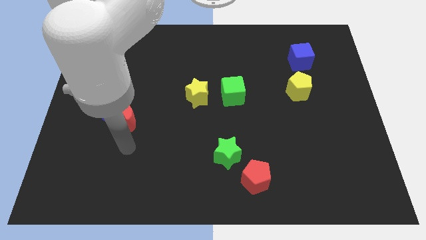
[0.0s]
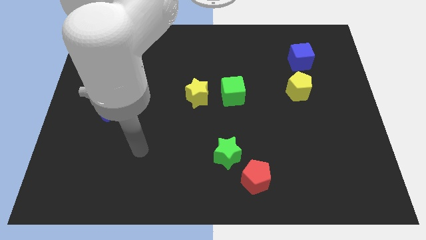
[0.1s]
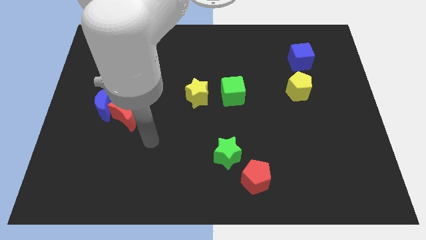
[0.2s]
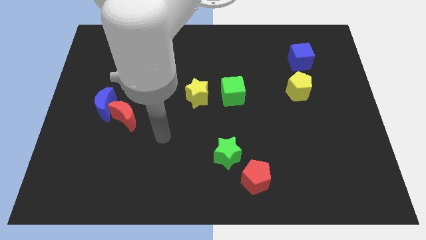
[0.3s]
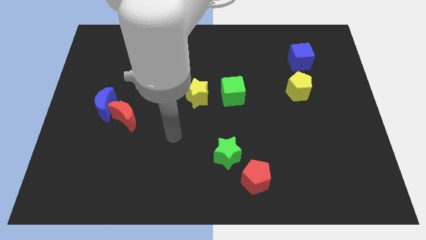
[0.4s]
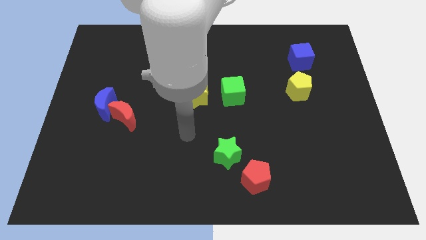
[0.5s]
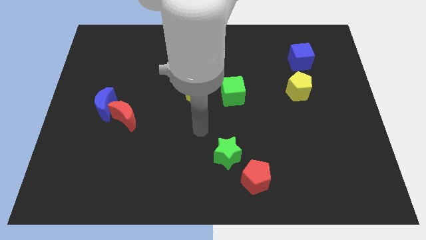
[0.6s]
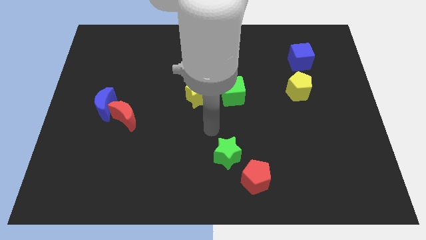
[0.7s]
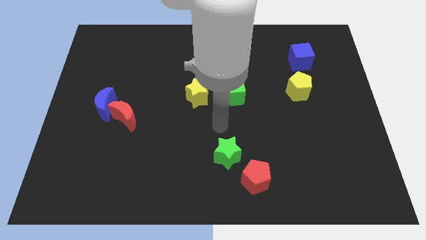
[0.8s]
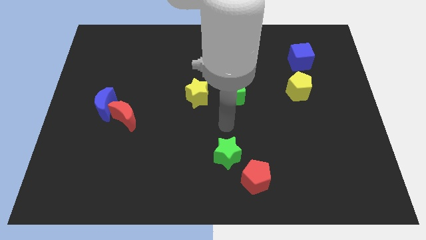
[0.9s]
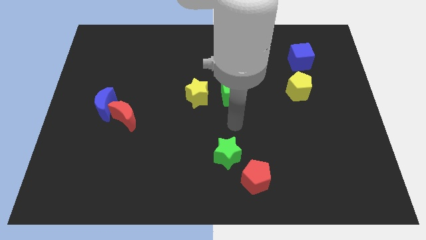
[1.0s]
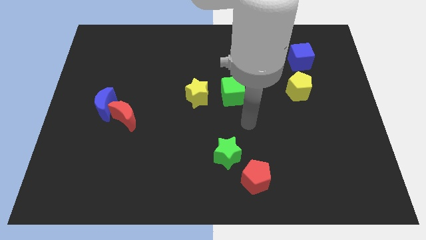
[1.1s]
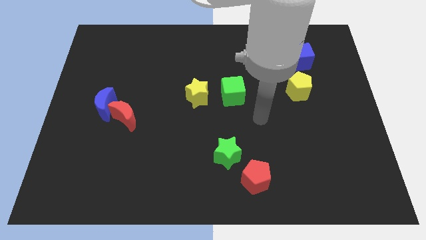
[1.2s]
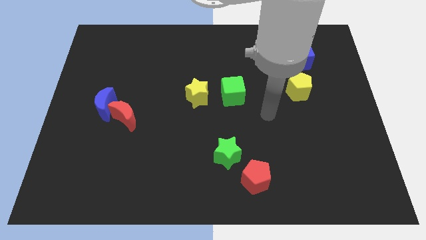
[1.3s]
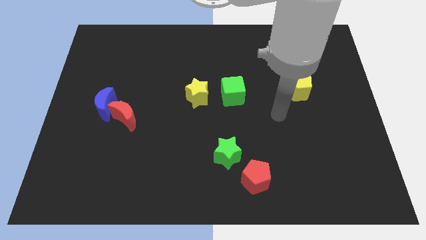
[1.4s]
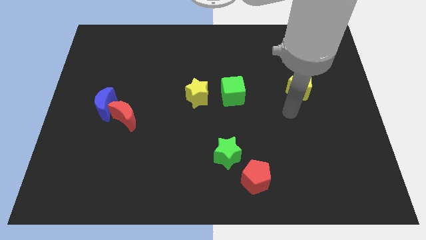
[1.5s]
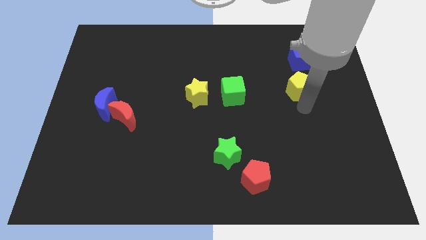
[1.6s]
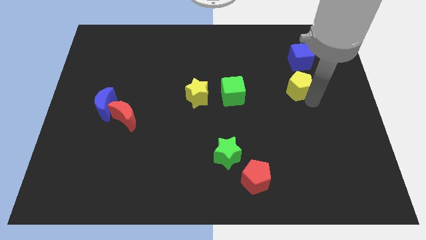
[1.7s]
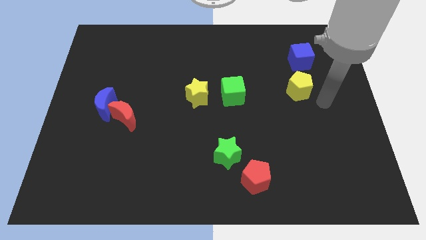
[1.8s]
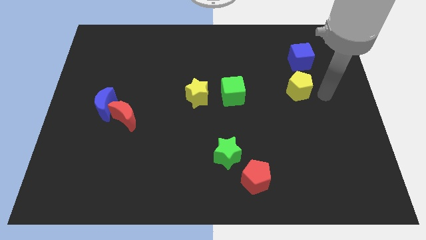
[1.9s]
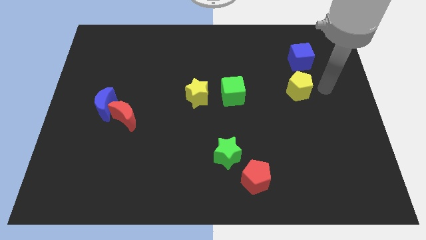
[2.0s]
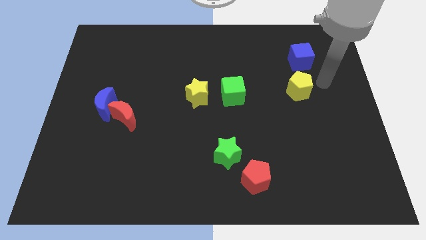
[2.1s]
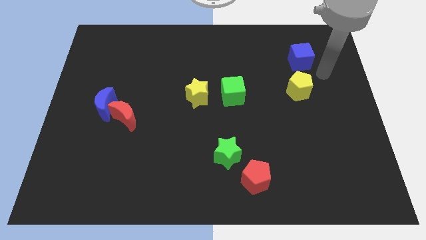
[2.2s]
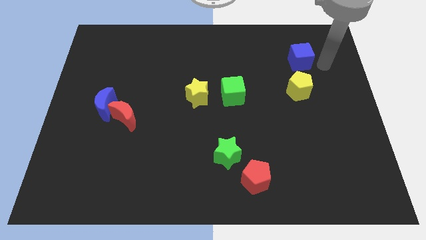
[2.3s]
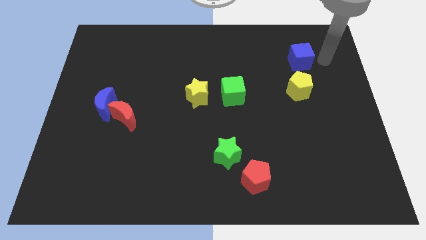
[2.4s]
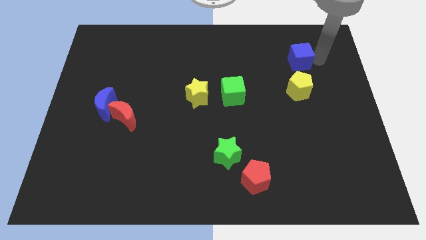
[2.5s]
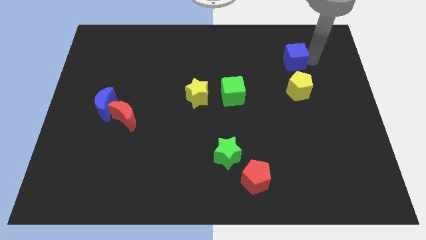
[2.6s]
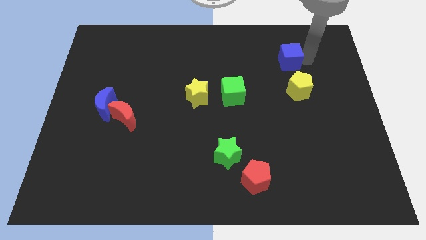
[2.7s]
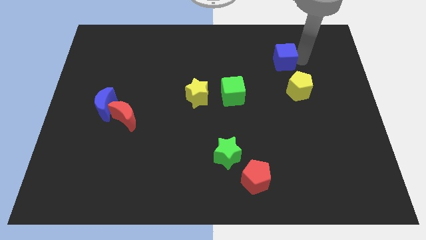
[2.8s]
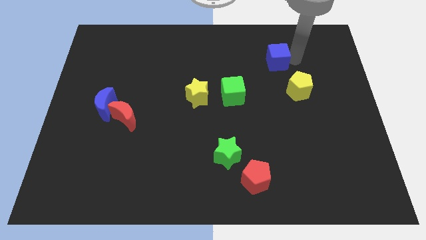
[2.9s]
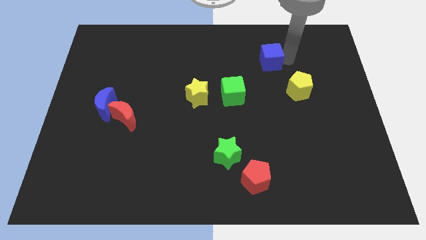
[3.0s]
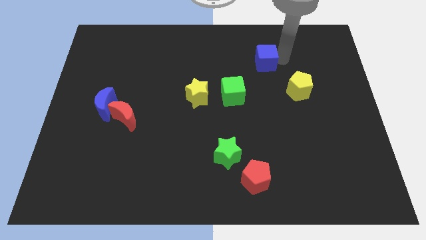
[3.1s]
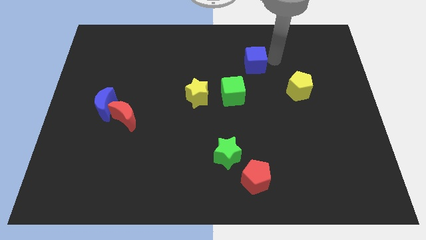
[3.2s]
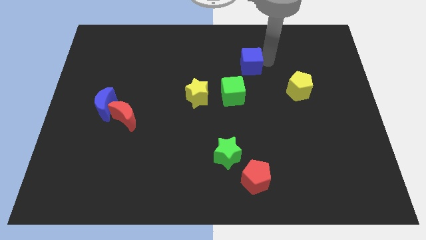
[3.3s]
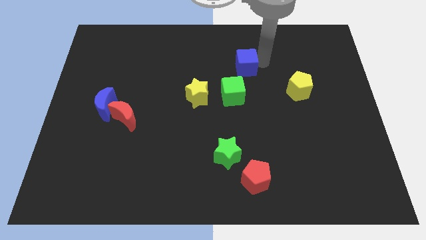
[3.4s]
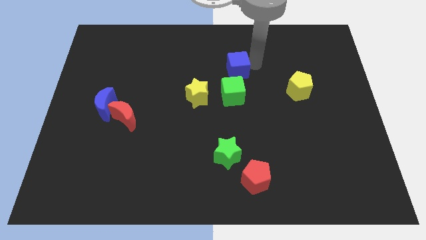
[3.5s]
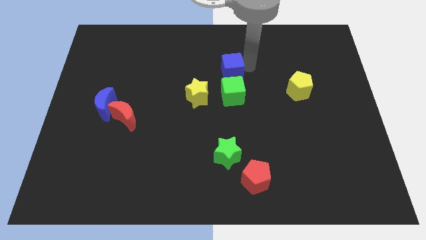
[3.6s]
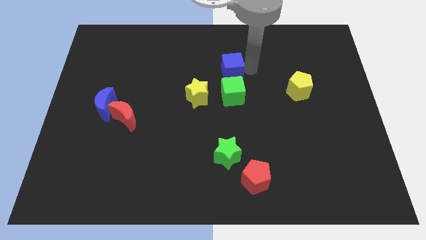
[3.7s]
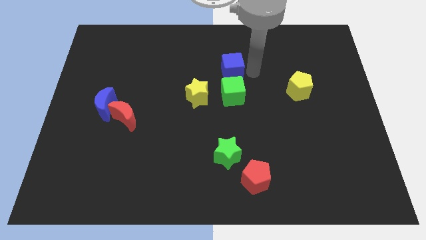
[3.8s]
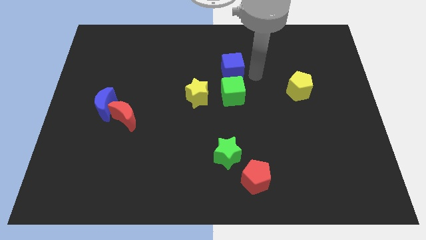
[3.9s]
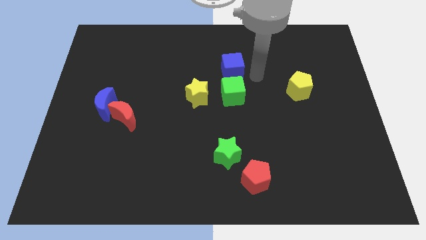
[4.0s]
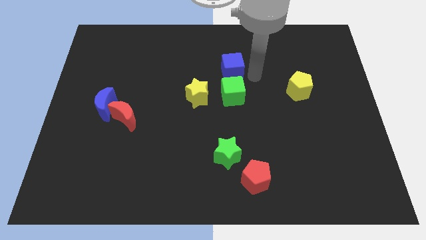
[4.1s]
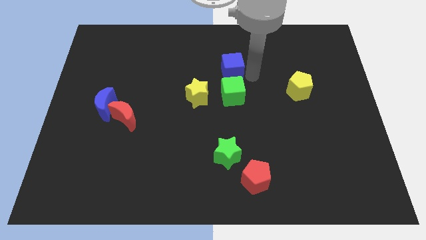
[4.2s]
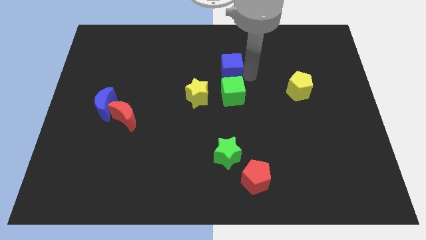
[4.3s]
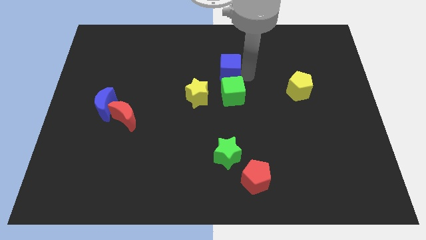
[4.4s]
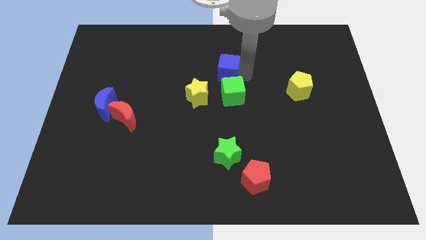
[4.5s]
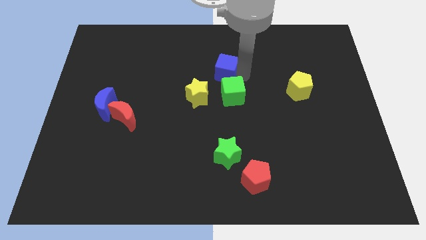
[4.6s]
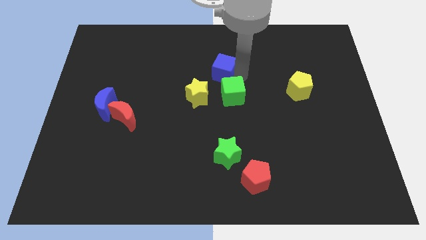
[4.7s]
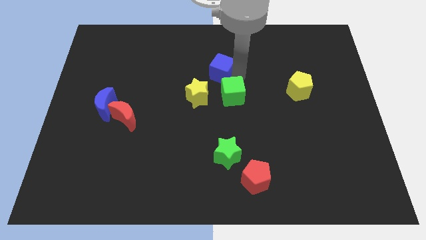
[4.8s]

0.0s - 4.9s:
move the blue cube left

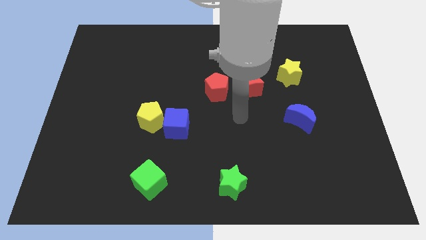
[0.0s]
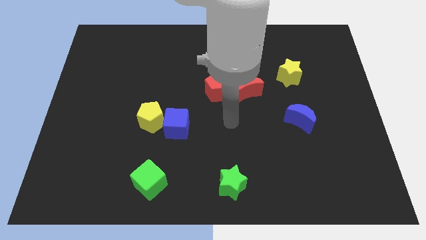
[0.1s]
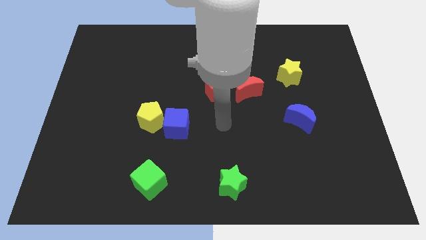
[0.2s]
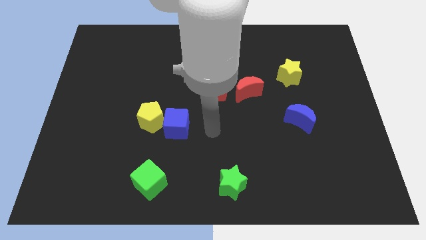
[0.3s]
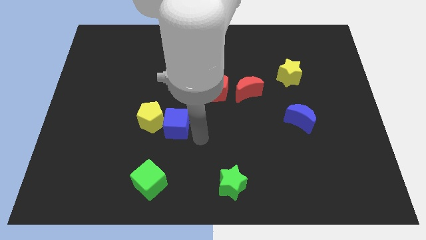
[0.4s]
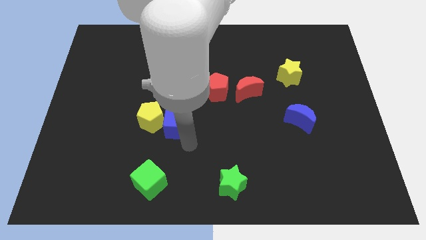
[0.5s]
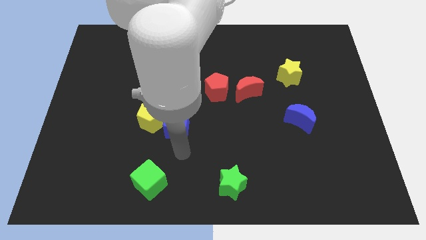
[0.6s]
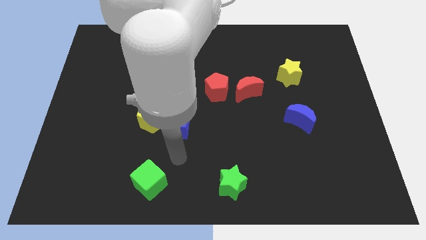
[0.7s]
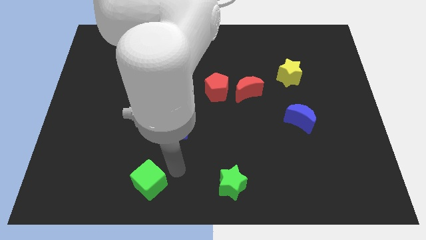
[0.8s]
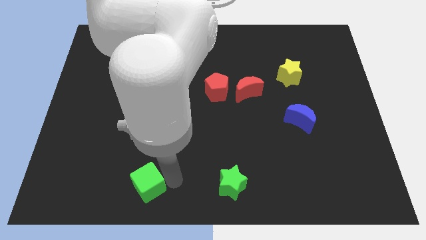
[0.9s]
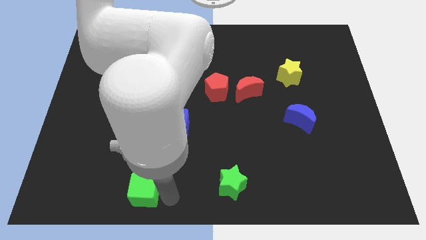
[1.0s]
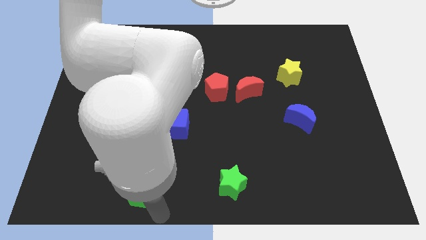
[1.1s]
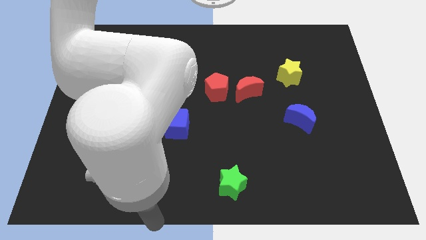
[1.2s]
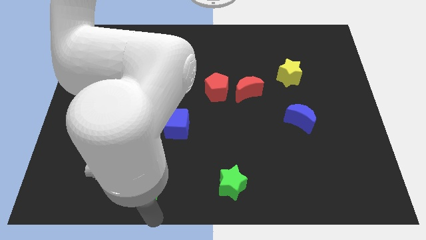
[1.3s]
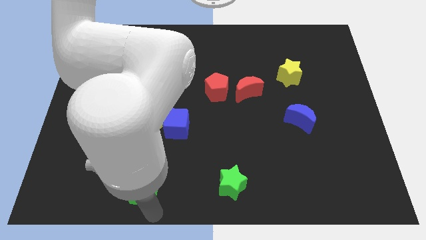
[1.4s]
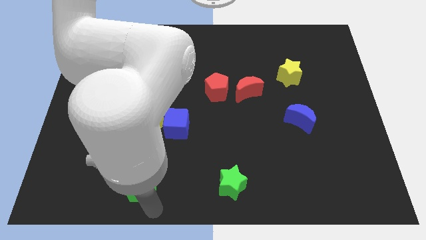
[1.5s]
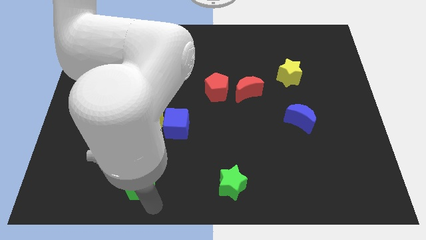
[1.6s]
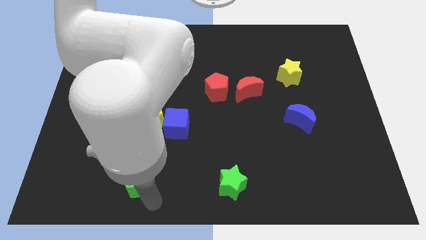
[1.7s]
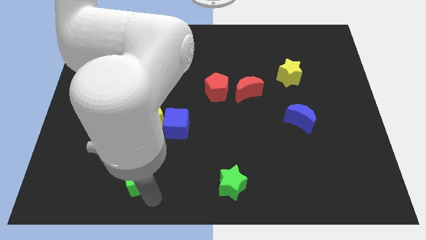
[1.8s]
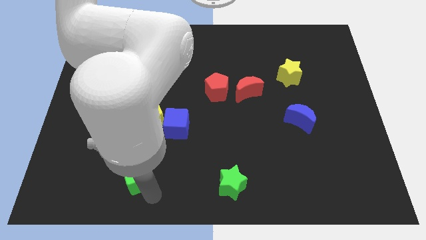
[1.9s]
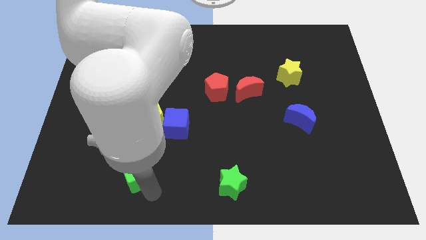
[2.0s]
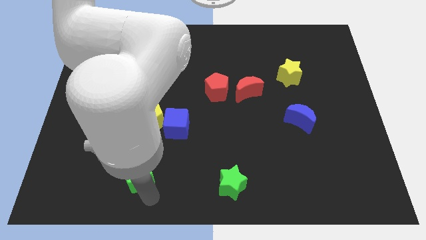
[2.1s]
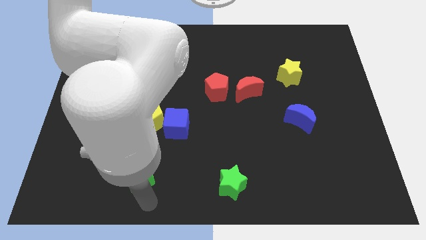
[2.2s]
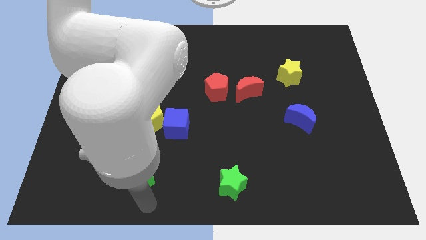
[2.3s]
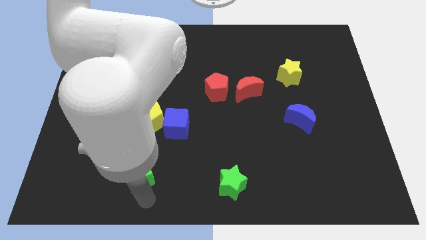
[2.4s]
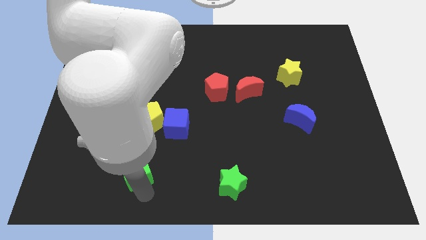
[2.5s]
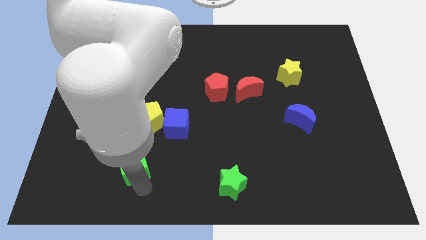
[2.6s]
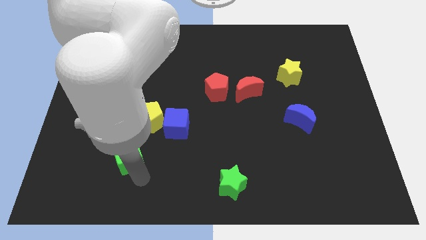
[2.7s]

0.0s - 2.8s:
slide the green cube slightly up and to the left diagonally

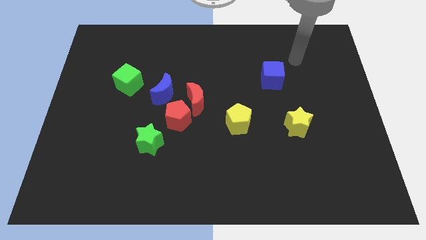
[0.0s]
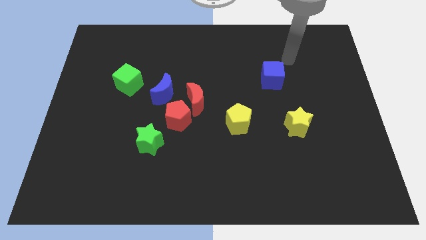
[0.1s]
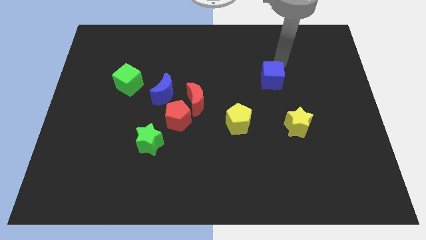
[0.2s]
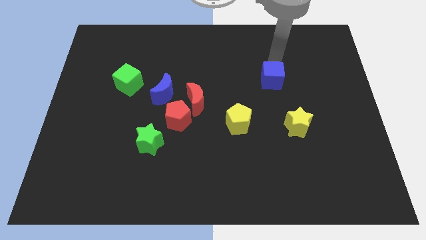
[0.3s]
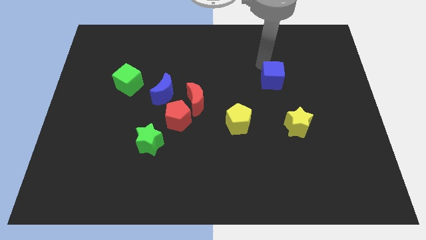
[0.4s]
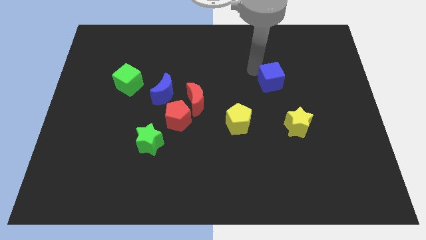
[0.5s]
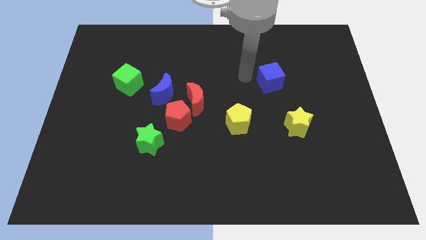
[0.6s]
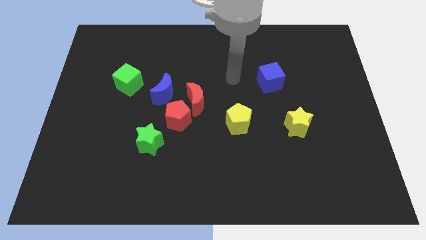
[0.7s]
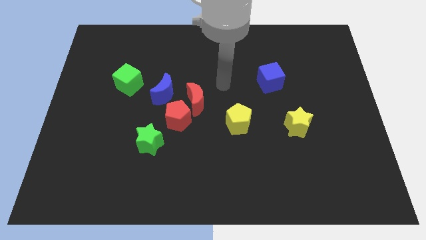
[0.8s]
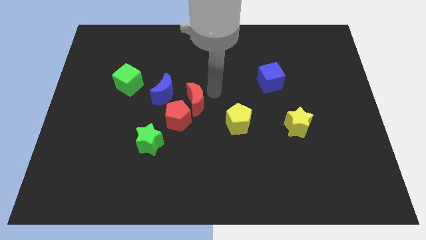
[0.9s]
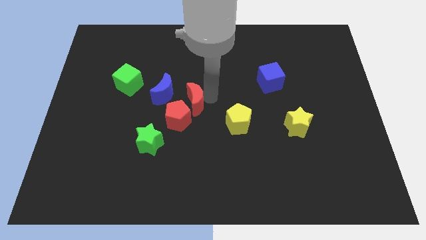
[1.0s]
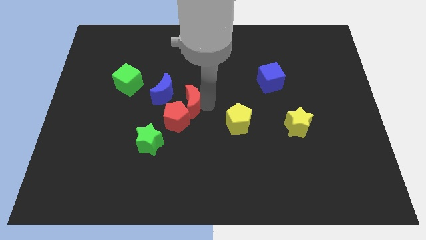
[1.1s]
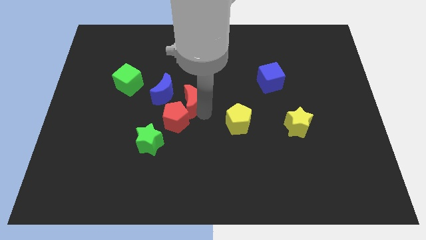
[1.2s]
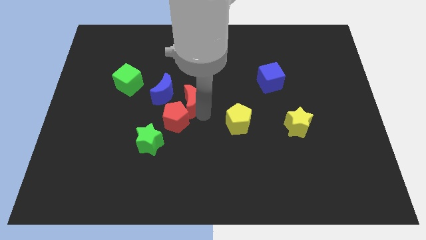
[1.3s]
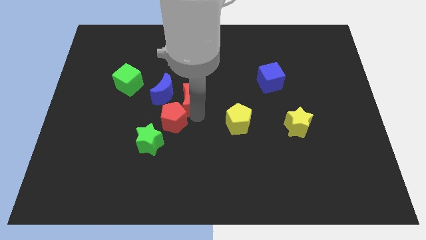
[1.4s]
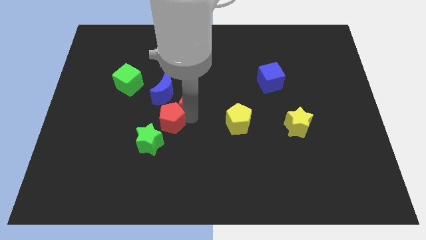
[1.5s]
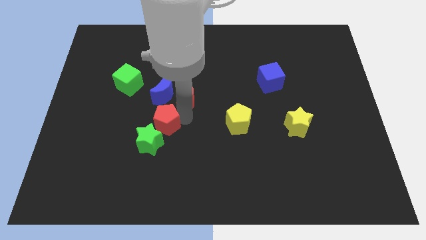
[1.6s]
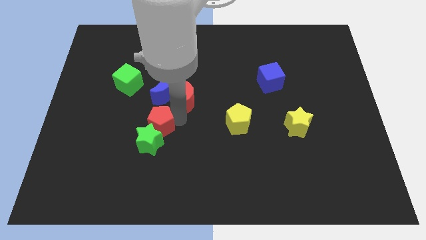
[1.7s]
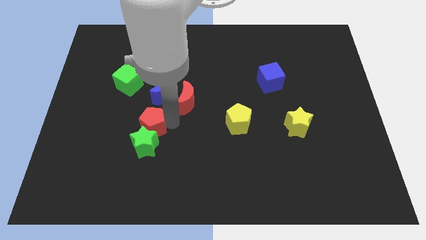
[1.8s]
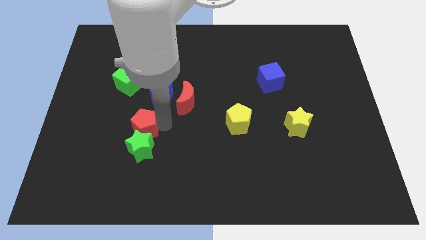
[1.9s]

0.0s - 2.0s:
slightly move the red pentagon left
